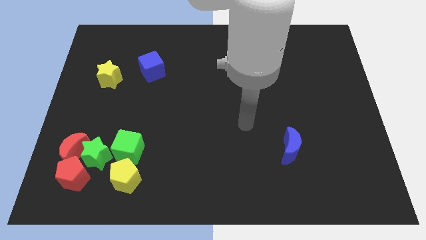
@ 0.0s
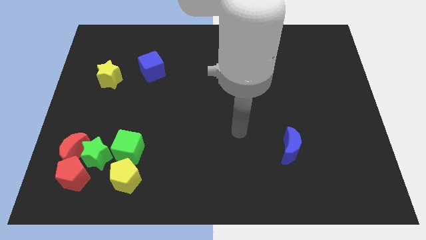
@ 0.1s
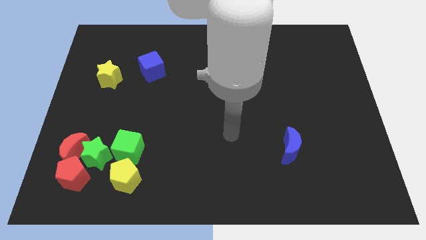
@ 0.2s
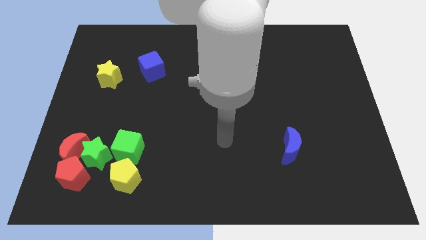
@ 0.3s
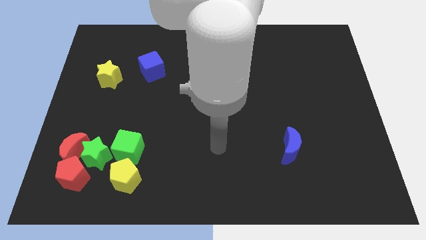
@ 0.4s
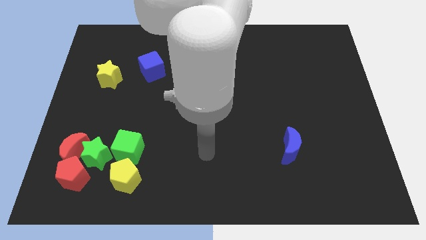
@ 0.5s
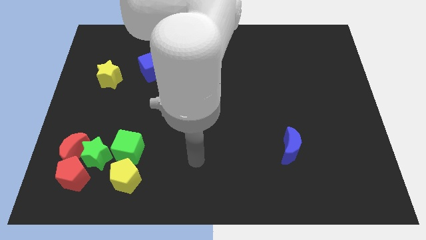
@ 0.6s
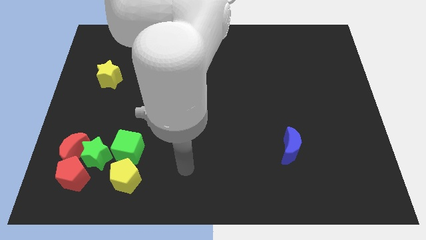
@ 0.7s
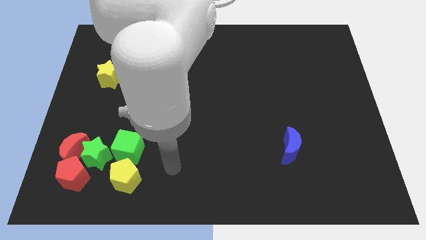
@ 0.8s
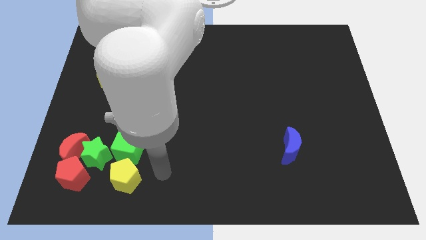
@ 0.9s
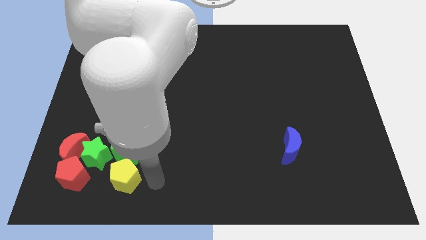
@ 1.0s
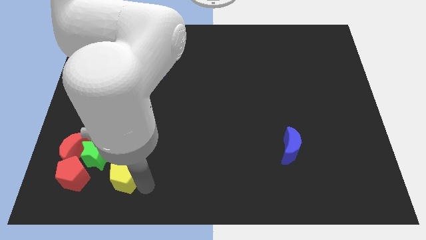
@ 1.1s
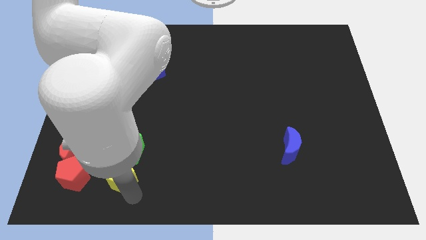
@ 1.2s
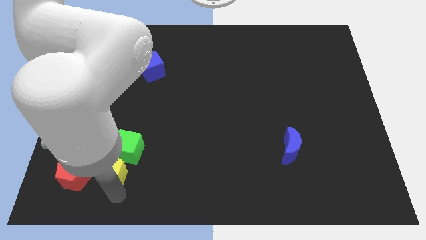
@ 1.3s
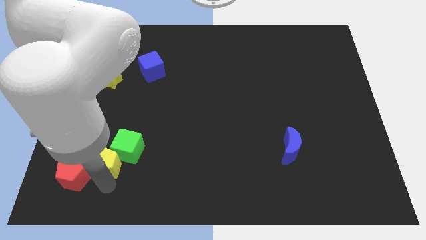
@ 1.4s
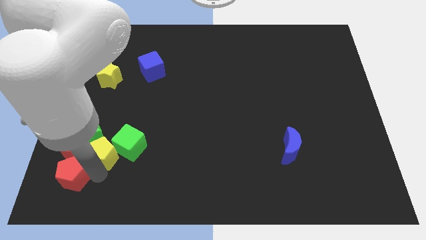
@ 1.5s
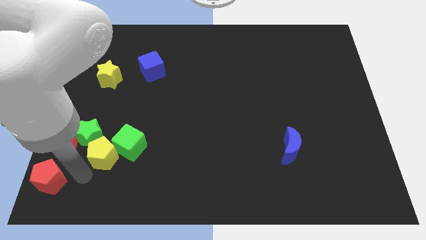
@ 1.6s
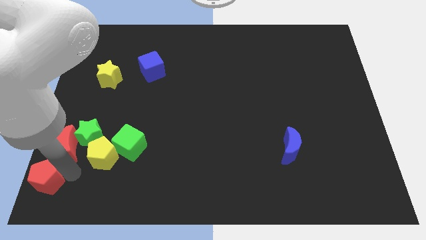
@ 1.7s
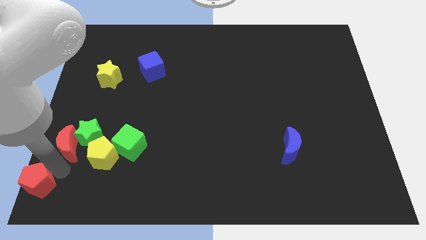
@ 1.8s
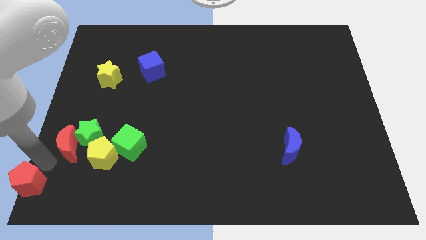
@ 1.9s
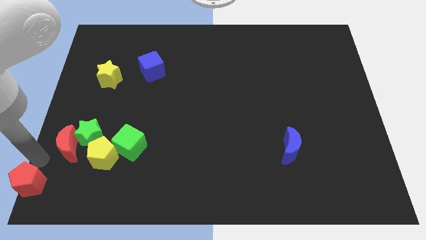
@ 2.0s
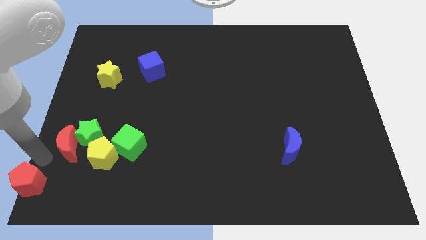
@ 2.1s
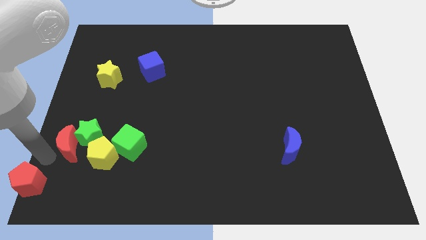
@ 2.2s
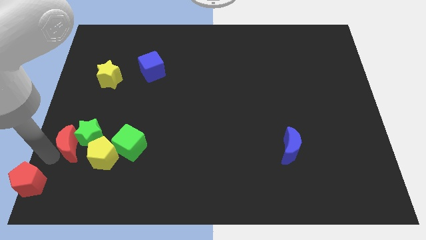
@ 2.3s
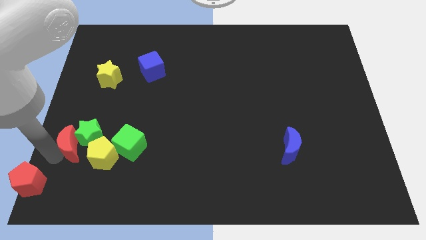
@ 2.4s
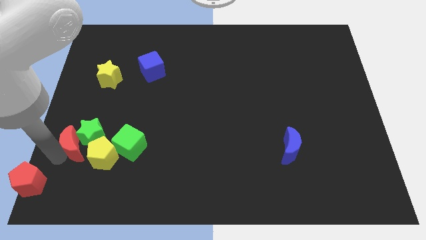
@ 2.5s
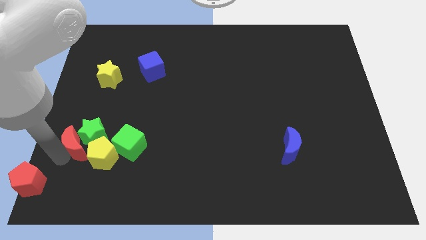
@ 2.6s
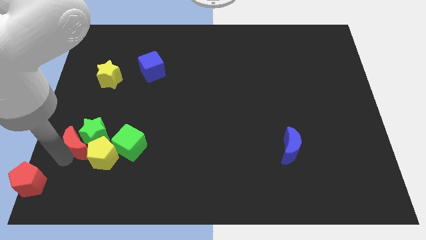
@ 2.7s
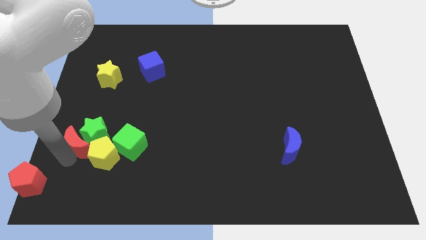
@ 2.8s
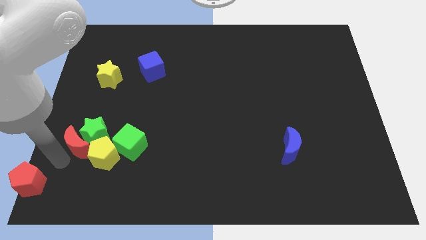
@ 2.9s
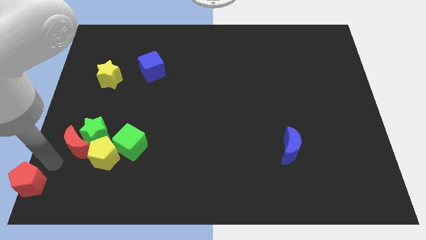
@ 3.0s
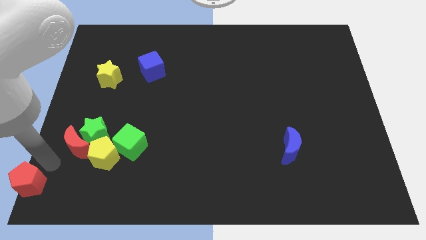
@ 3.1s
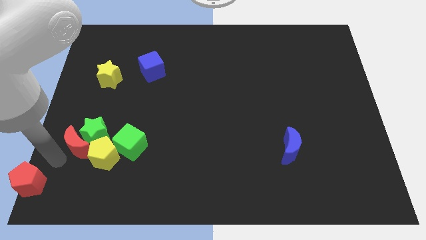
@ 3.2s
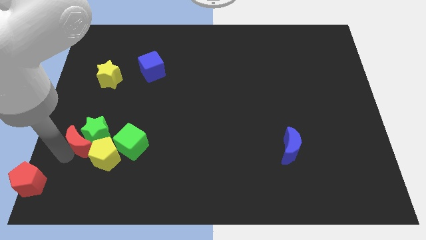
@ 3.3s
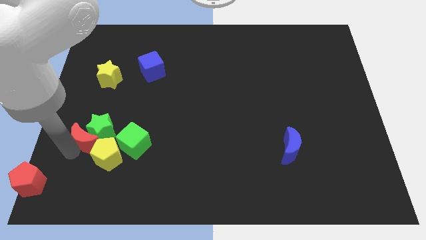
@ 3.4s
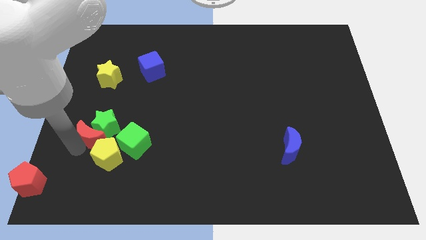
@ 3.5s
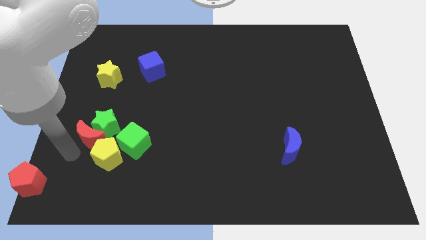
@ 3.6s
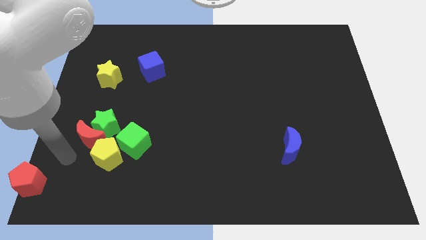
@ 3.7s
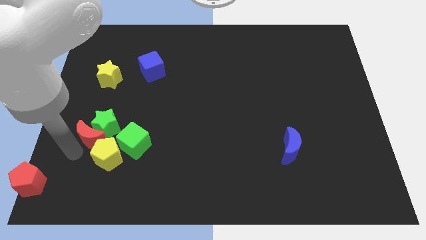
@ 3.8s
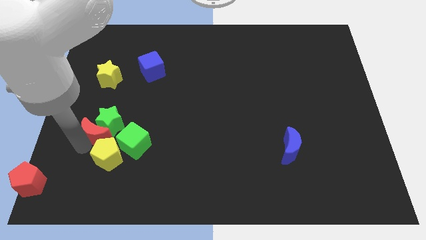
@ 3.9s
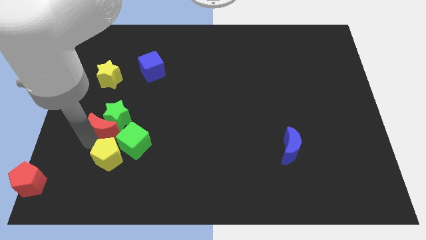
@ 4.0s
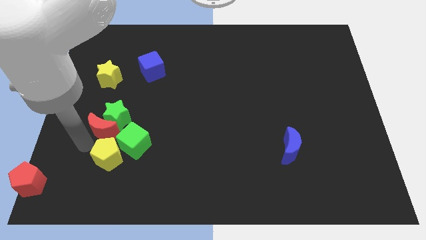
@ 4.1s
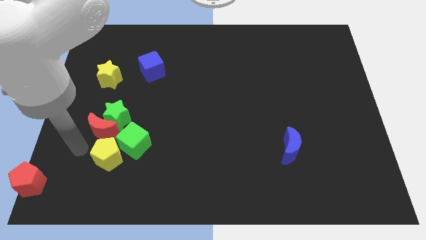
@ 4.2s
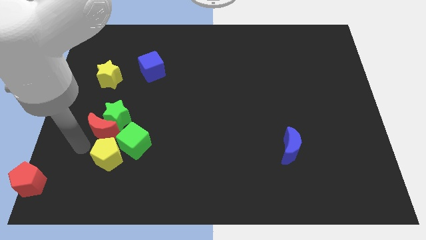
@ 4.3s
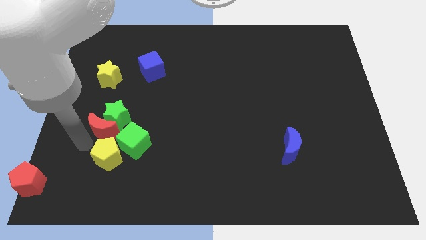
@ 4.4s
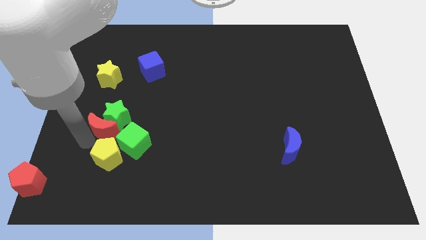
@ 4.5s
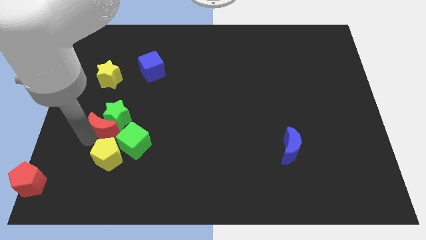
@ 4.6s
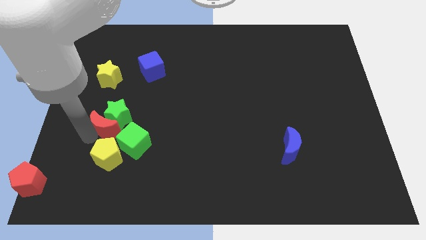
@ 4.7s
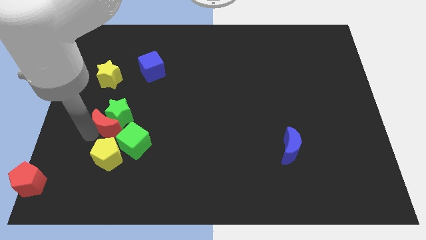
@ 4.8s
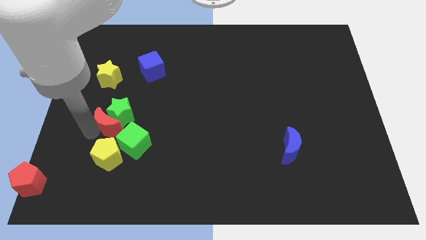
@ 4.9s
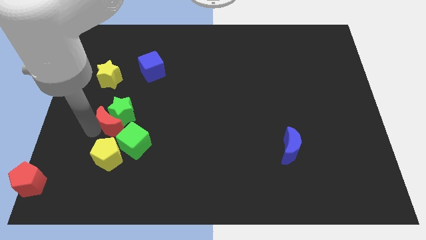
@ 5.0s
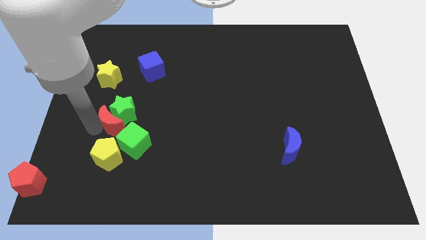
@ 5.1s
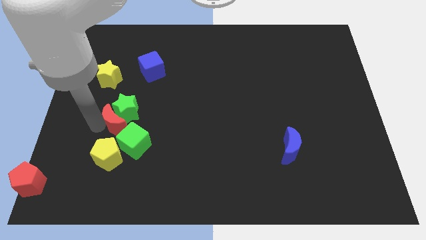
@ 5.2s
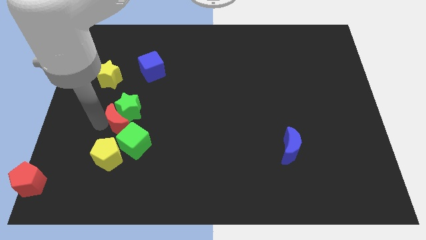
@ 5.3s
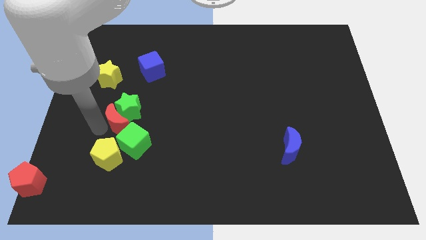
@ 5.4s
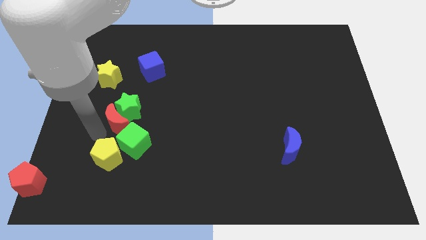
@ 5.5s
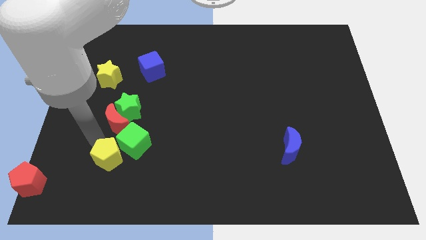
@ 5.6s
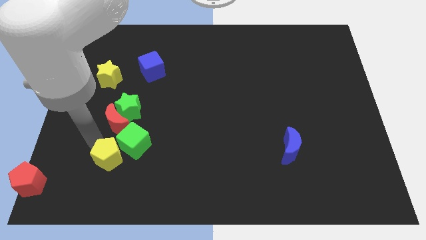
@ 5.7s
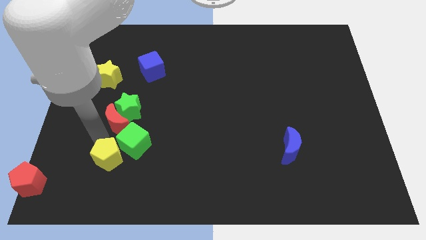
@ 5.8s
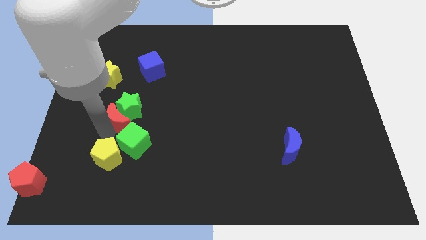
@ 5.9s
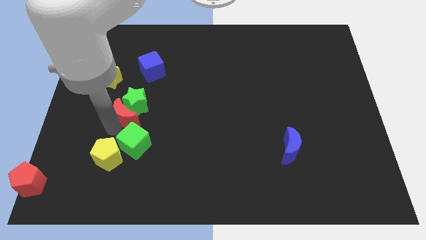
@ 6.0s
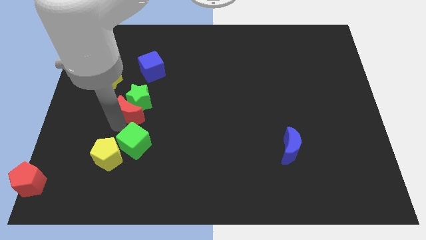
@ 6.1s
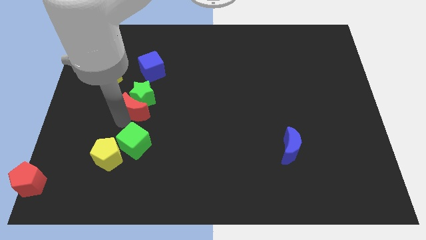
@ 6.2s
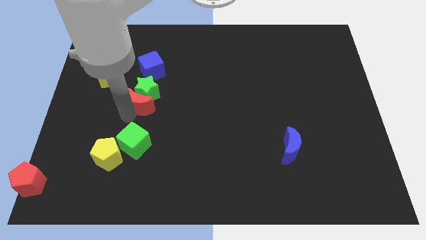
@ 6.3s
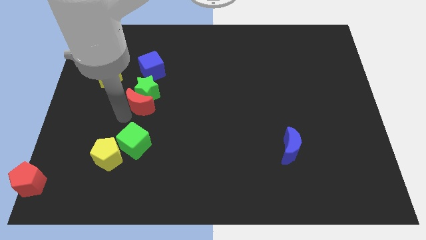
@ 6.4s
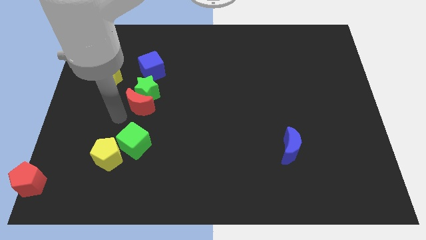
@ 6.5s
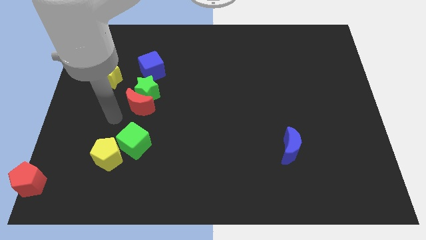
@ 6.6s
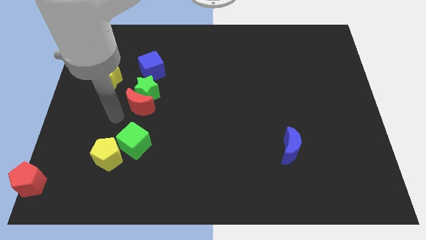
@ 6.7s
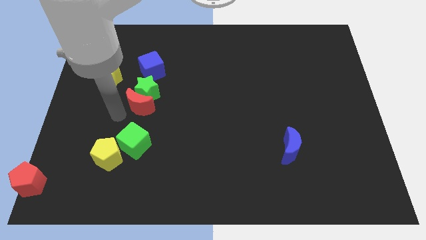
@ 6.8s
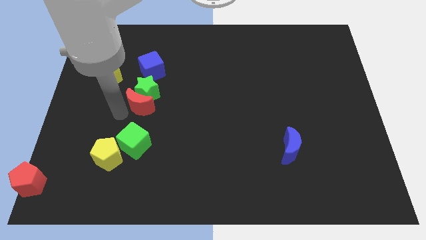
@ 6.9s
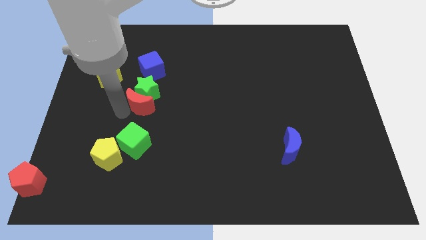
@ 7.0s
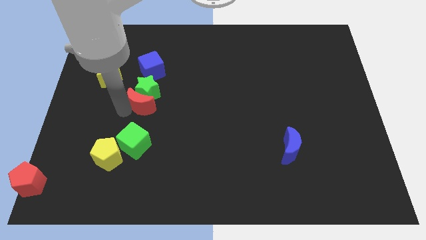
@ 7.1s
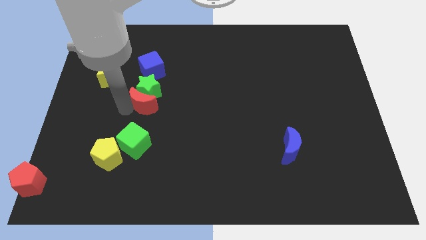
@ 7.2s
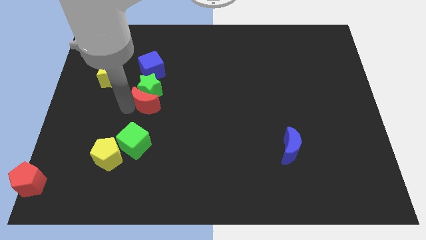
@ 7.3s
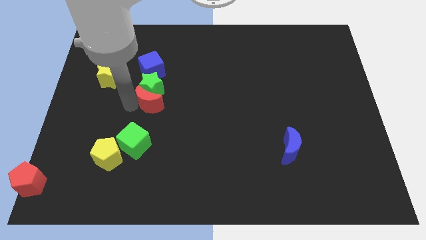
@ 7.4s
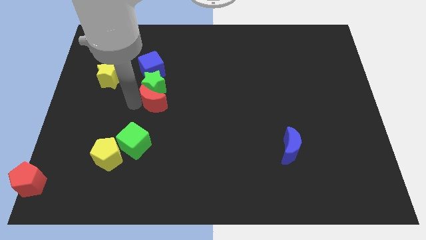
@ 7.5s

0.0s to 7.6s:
move the red moon upwards and to the right
